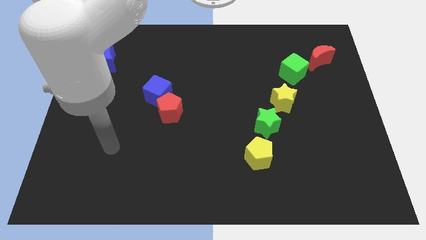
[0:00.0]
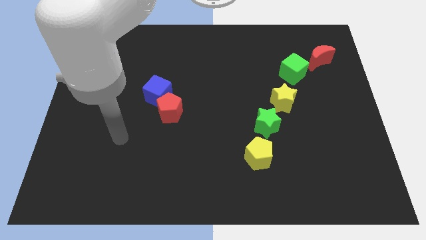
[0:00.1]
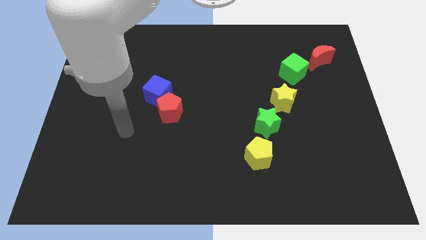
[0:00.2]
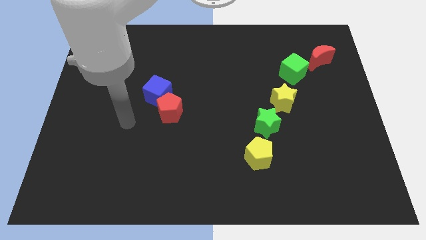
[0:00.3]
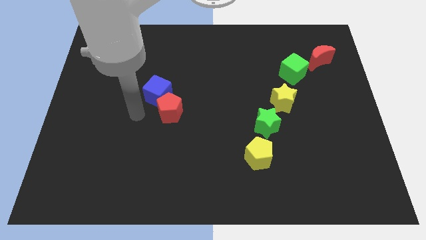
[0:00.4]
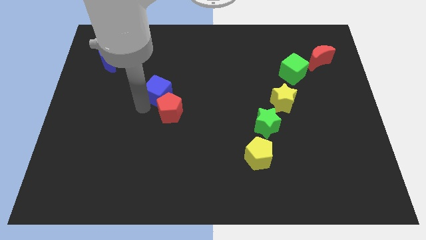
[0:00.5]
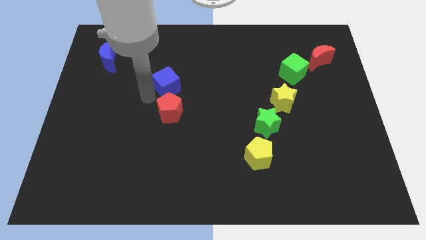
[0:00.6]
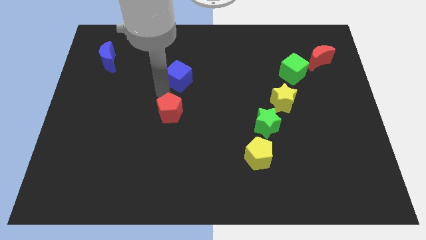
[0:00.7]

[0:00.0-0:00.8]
separate the red pentagon from the blue cube

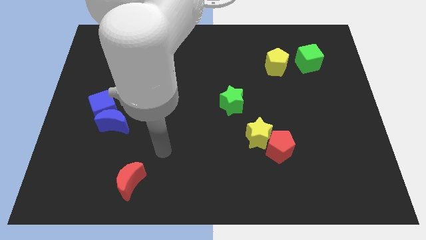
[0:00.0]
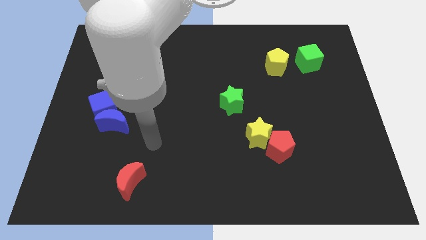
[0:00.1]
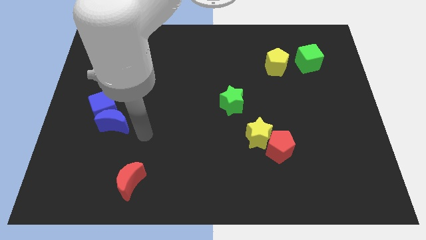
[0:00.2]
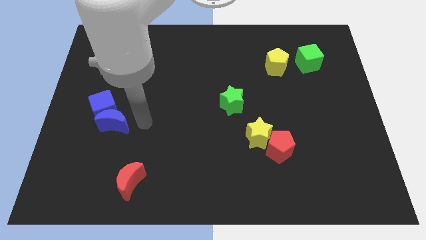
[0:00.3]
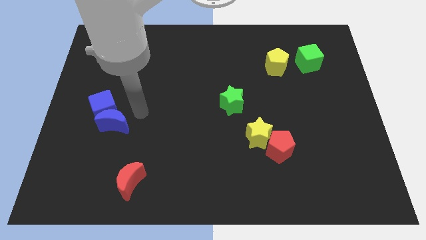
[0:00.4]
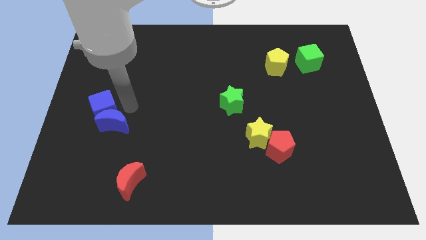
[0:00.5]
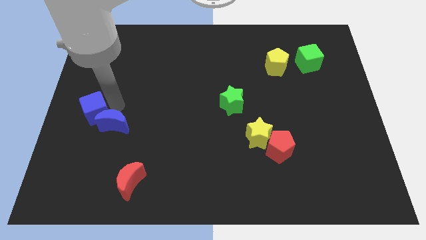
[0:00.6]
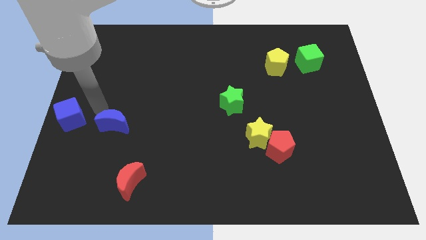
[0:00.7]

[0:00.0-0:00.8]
separate the blue moon from the blue cube

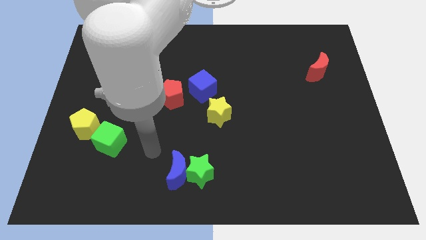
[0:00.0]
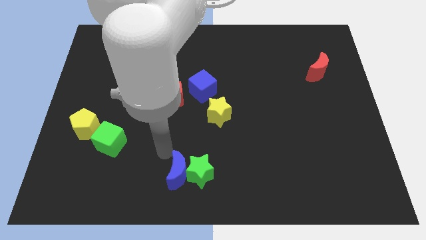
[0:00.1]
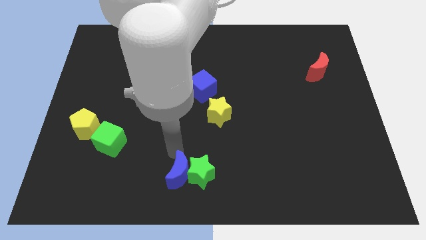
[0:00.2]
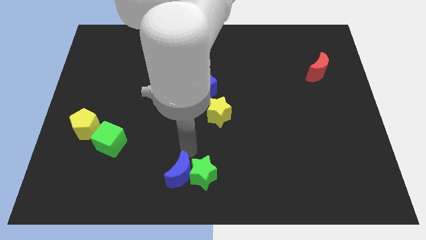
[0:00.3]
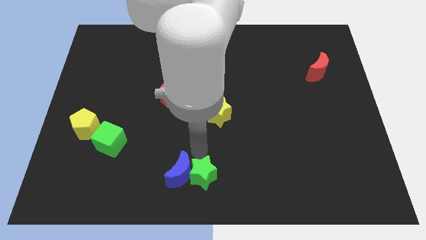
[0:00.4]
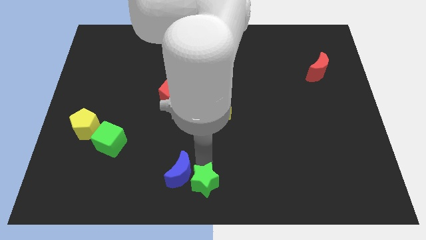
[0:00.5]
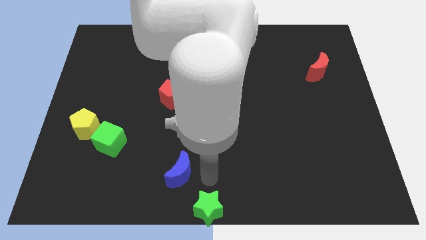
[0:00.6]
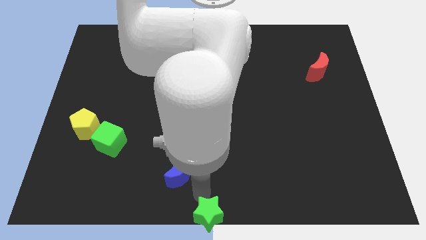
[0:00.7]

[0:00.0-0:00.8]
move the blue moon away from the green star

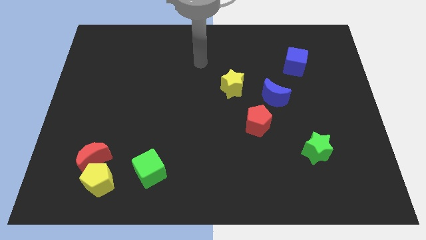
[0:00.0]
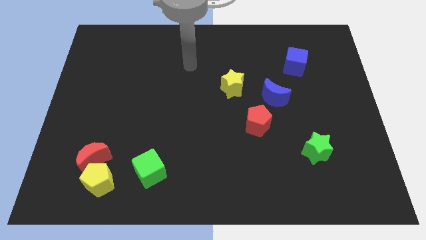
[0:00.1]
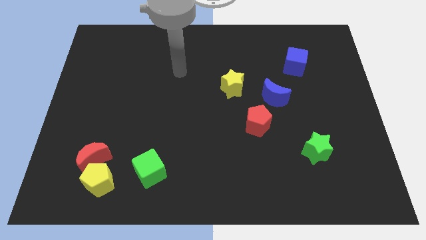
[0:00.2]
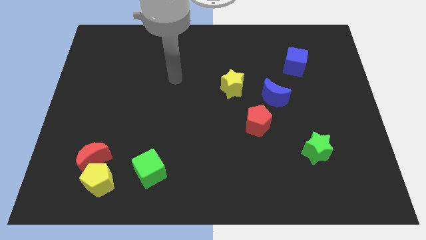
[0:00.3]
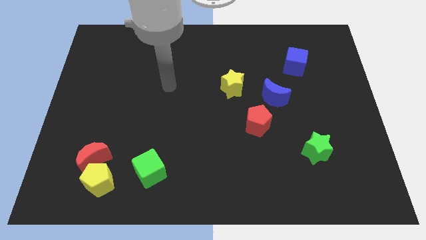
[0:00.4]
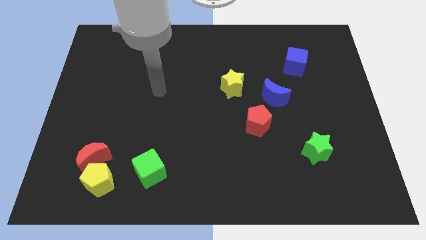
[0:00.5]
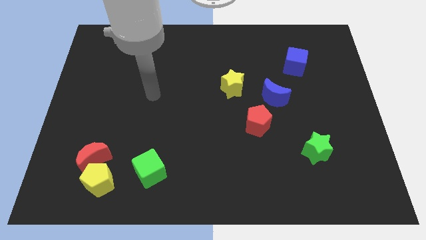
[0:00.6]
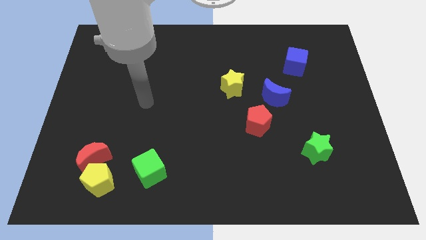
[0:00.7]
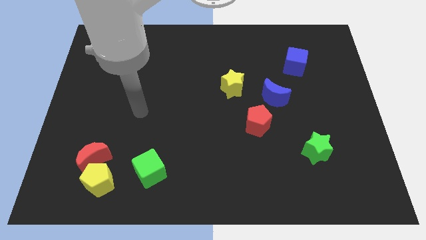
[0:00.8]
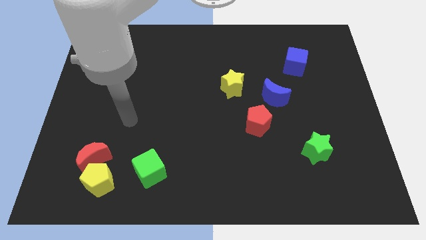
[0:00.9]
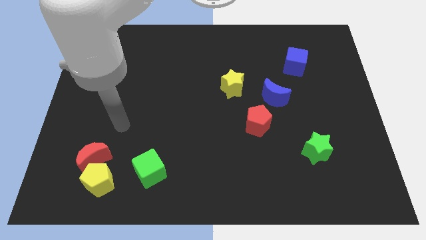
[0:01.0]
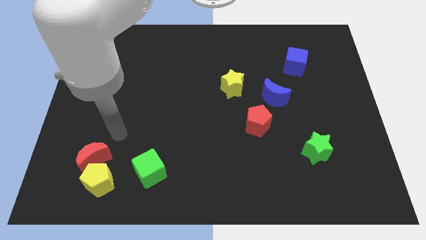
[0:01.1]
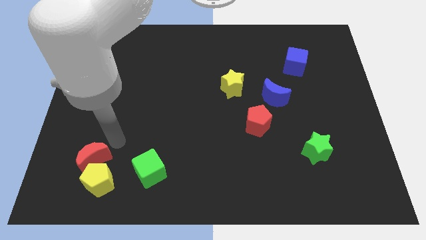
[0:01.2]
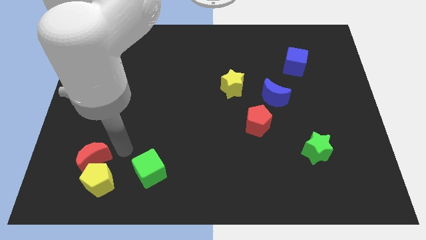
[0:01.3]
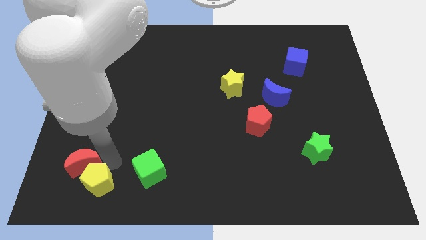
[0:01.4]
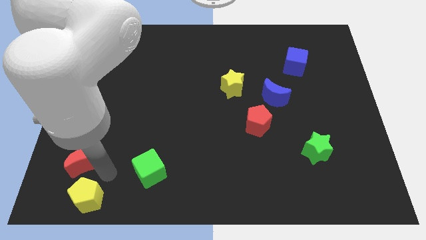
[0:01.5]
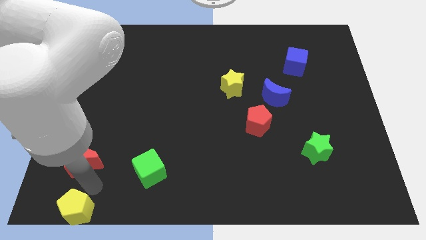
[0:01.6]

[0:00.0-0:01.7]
move the red moon away from the yellow pentagon

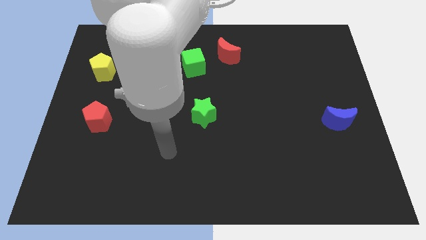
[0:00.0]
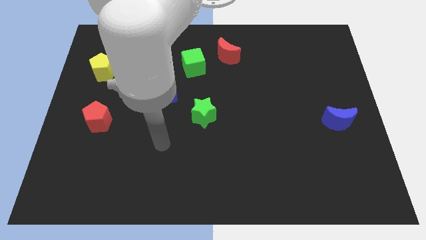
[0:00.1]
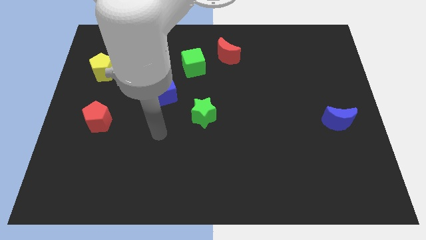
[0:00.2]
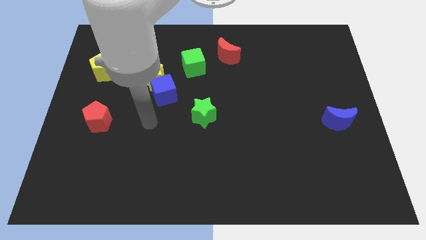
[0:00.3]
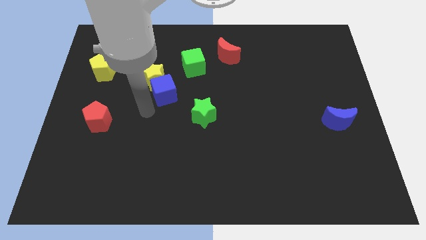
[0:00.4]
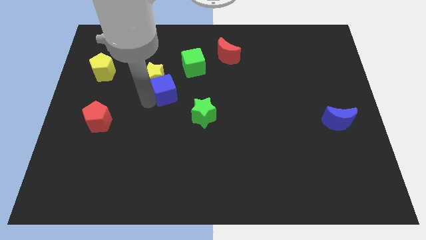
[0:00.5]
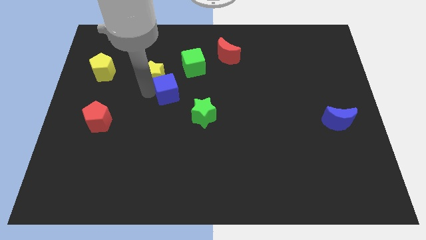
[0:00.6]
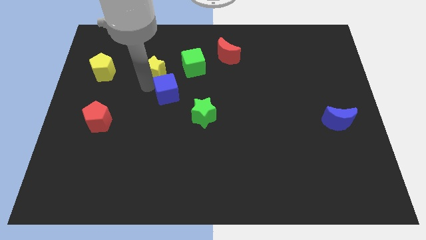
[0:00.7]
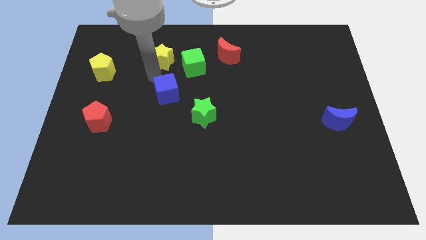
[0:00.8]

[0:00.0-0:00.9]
pull the blue cube apart from the yellow star

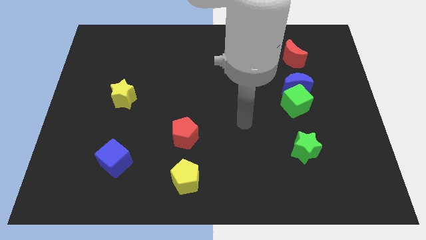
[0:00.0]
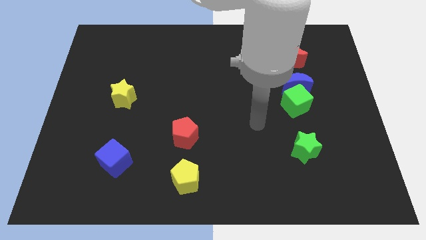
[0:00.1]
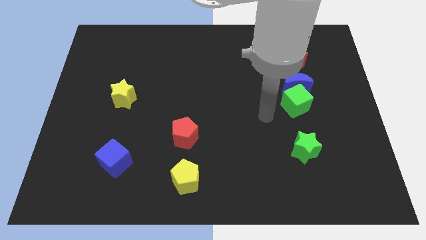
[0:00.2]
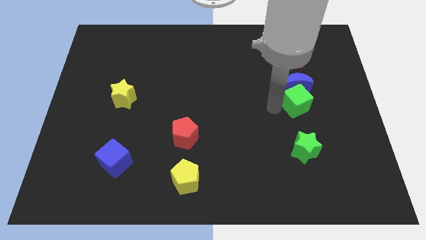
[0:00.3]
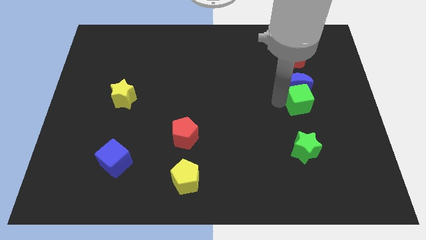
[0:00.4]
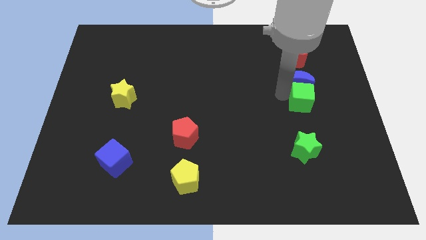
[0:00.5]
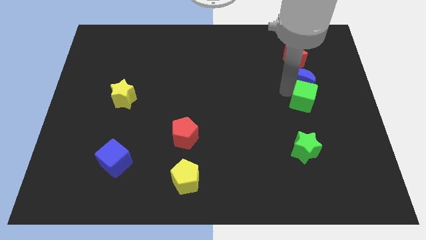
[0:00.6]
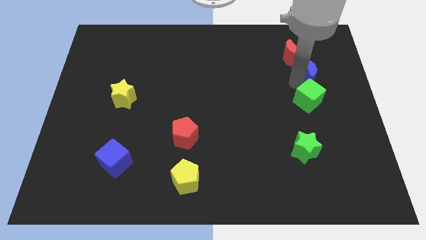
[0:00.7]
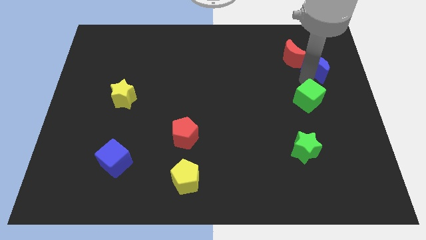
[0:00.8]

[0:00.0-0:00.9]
pull the green cube apart from the blue moon

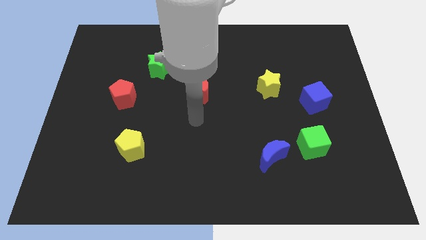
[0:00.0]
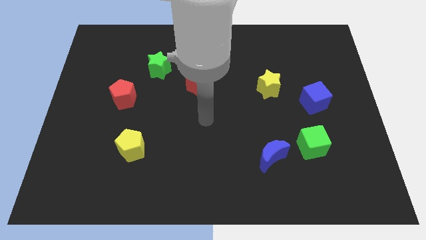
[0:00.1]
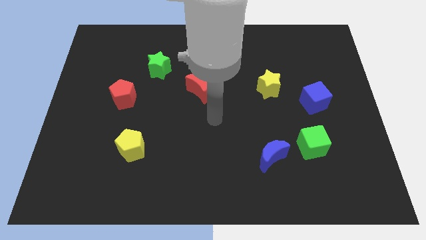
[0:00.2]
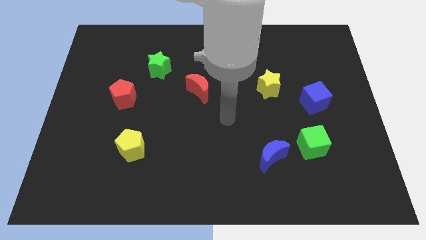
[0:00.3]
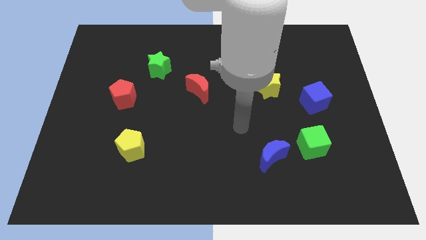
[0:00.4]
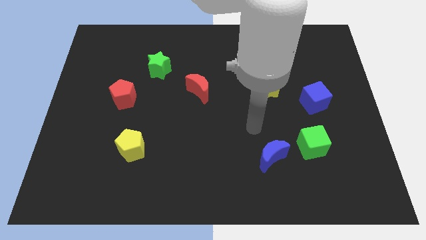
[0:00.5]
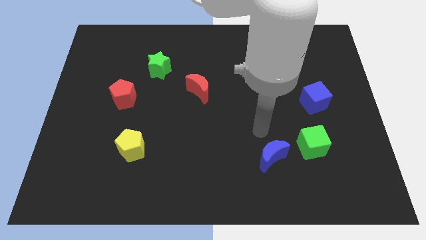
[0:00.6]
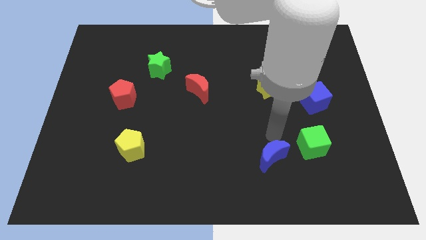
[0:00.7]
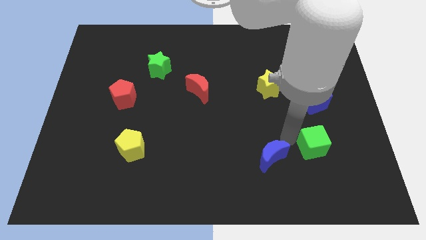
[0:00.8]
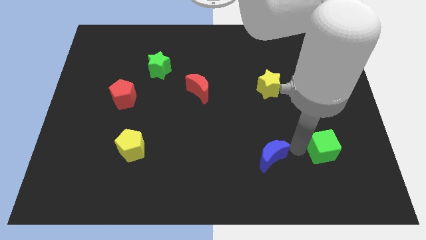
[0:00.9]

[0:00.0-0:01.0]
move the blue moon away from the green cube

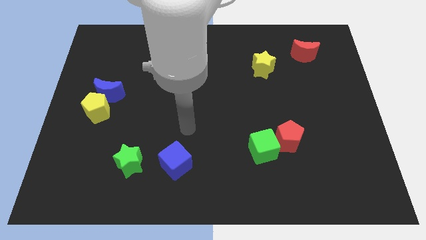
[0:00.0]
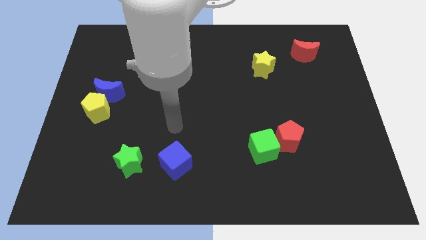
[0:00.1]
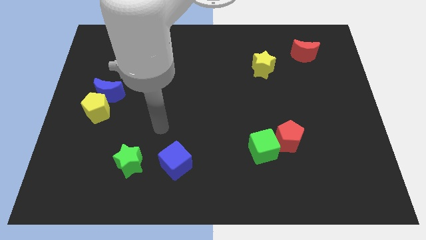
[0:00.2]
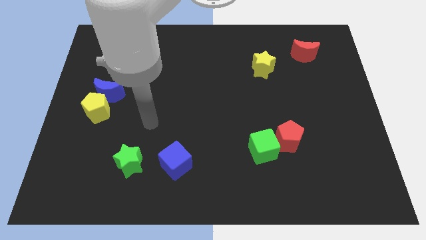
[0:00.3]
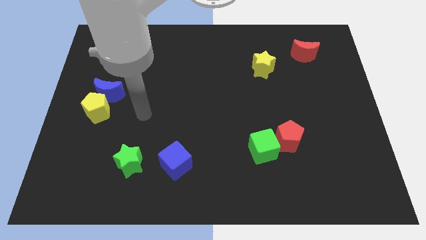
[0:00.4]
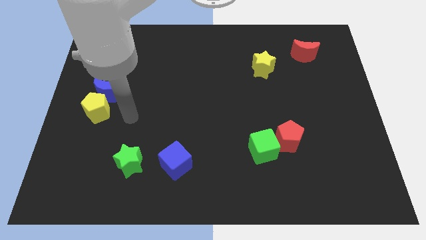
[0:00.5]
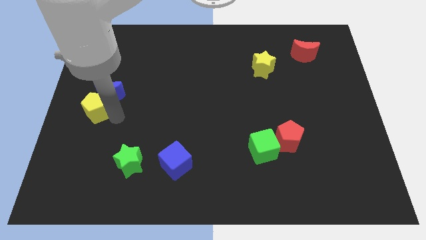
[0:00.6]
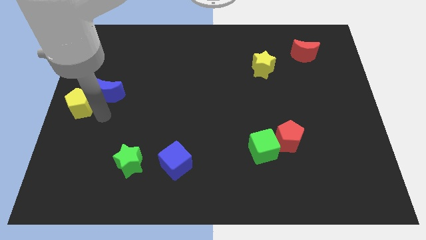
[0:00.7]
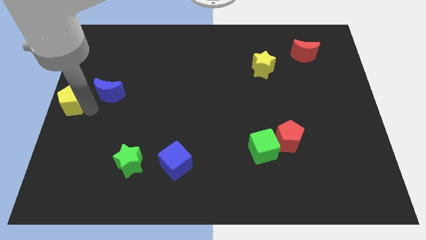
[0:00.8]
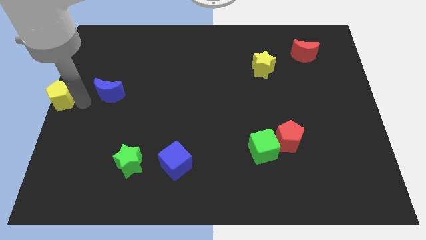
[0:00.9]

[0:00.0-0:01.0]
move the blue moon away from the yellow pentagon

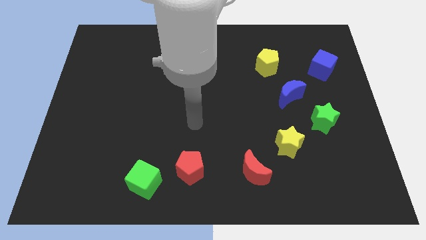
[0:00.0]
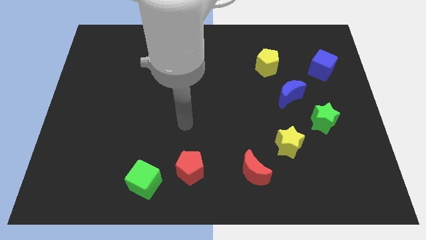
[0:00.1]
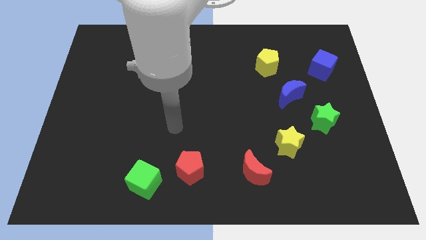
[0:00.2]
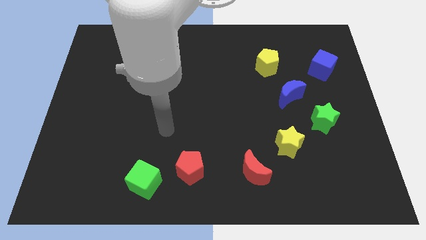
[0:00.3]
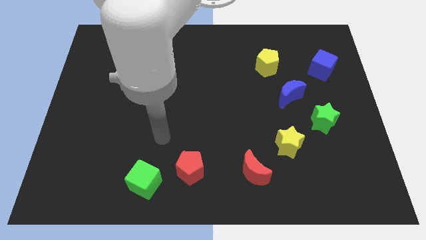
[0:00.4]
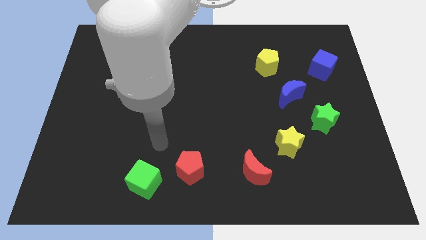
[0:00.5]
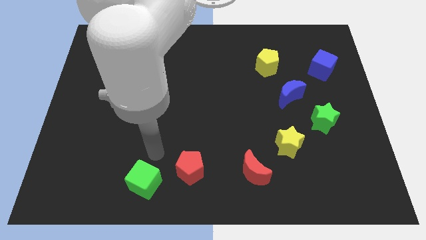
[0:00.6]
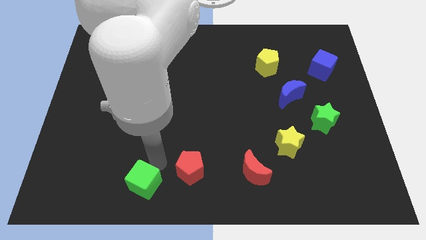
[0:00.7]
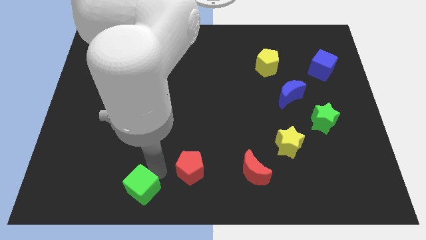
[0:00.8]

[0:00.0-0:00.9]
move the red pentagon away from the green cube

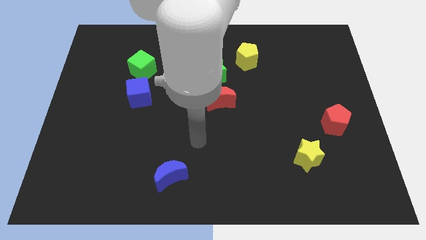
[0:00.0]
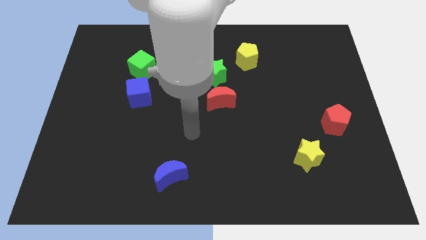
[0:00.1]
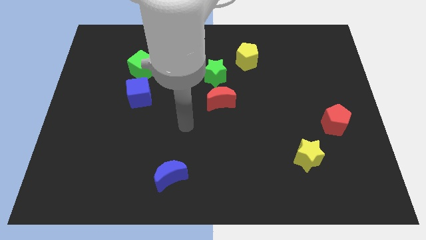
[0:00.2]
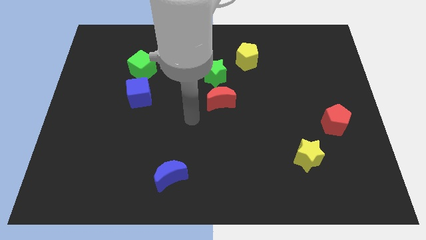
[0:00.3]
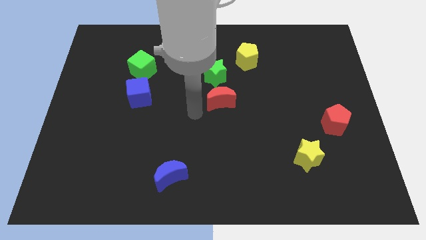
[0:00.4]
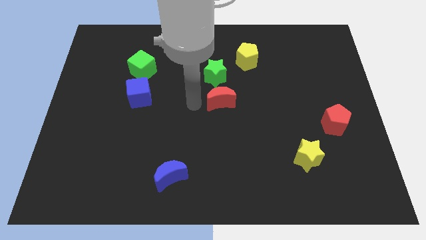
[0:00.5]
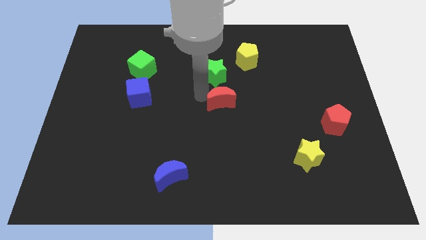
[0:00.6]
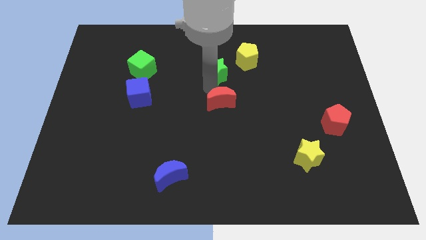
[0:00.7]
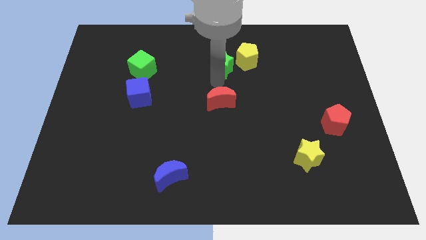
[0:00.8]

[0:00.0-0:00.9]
separate the red moon from the green star
